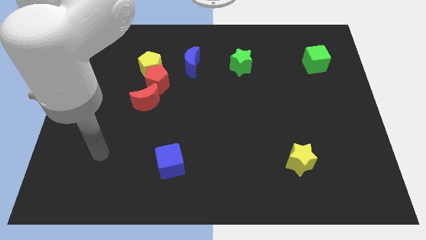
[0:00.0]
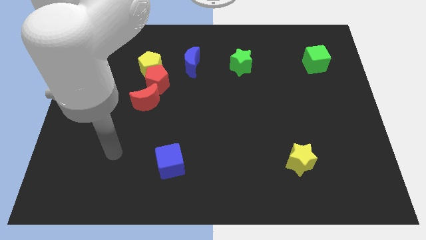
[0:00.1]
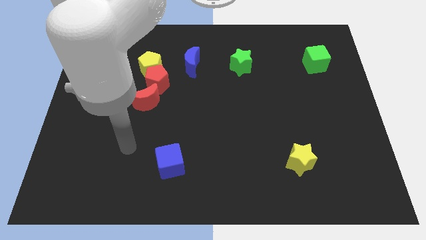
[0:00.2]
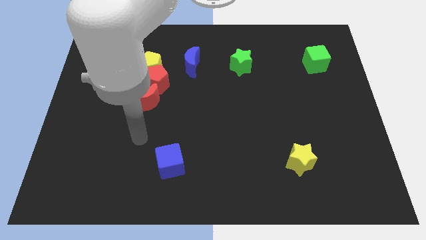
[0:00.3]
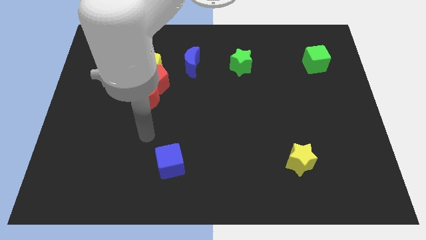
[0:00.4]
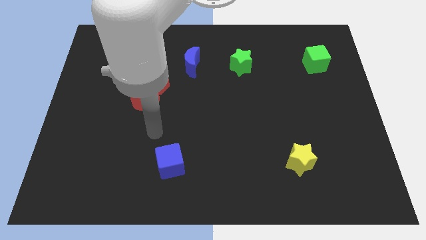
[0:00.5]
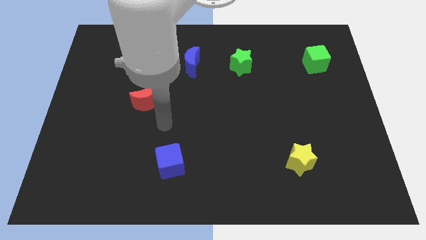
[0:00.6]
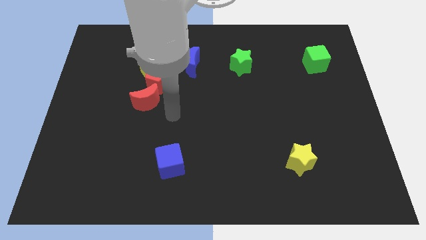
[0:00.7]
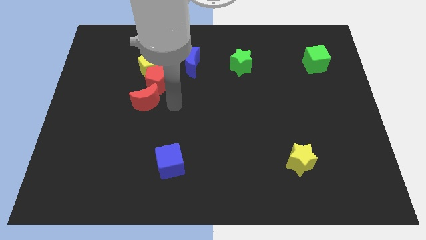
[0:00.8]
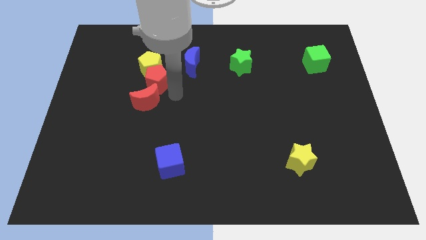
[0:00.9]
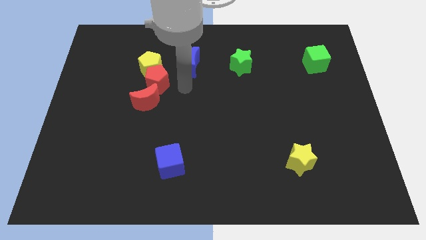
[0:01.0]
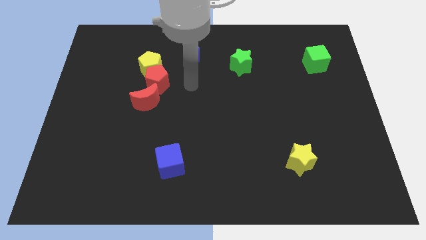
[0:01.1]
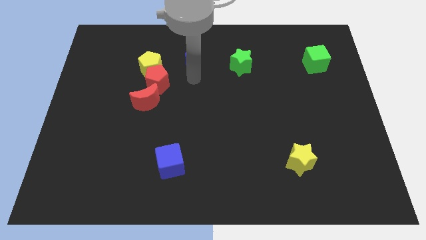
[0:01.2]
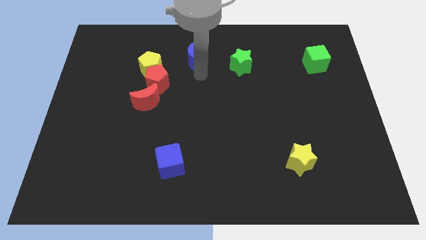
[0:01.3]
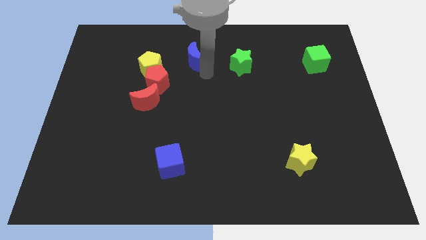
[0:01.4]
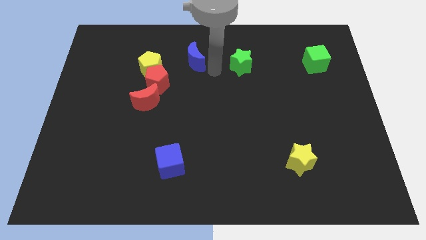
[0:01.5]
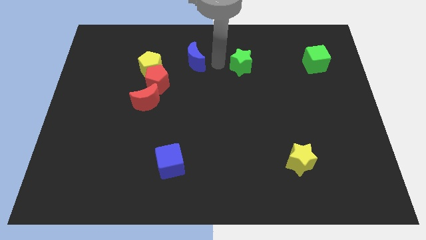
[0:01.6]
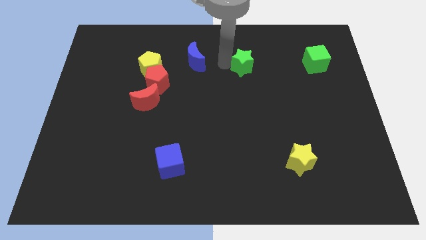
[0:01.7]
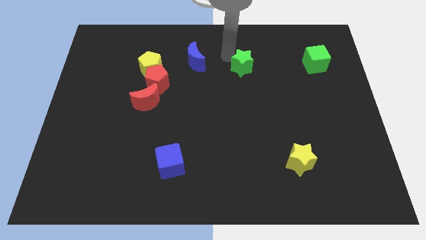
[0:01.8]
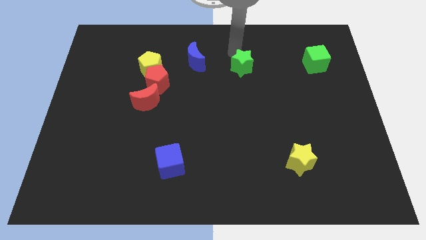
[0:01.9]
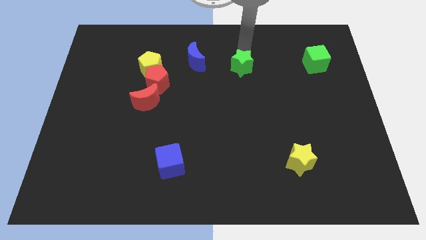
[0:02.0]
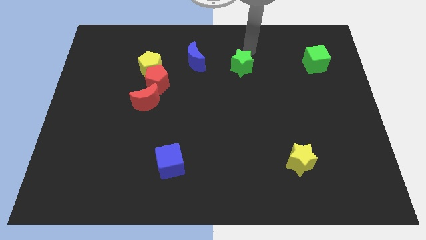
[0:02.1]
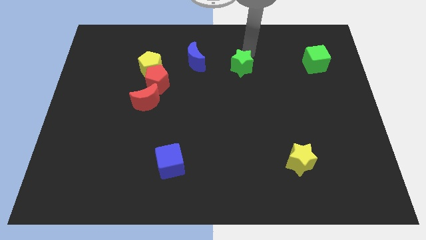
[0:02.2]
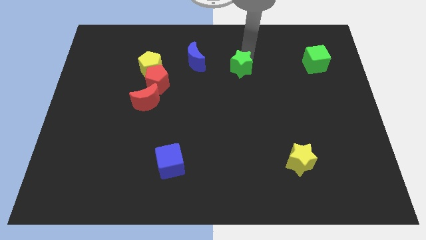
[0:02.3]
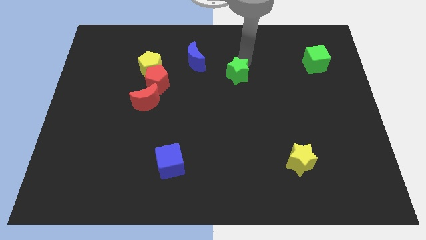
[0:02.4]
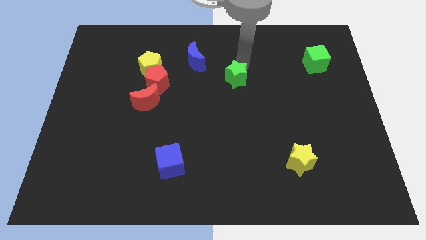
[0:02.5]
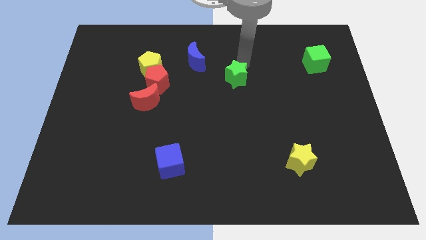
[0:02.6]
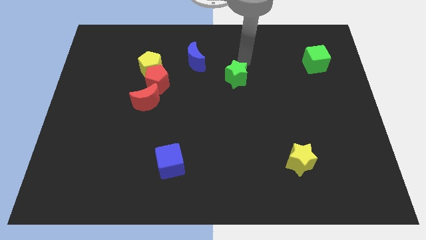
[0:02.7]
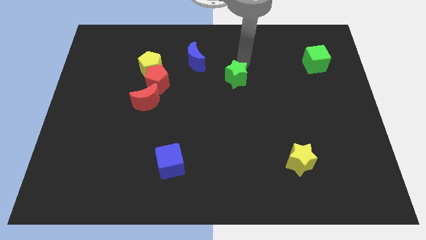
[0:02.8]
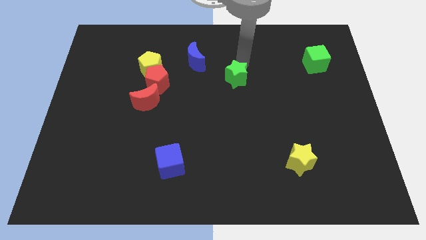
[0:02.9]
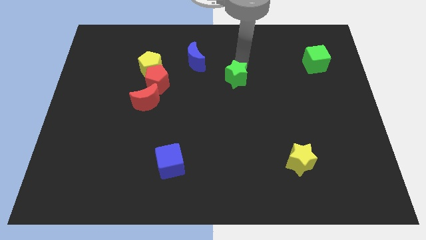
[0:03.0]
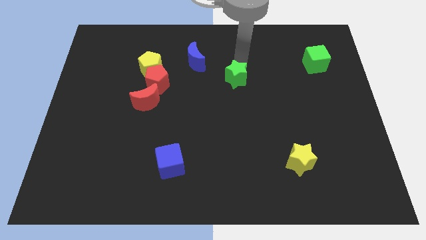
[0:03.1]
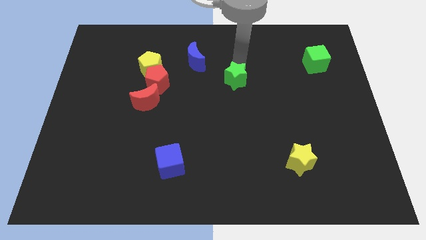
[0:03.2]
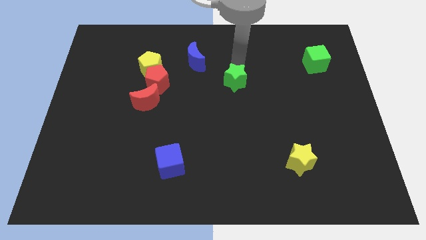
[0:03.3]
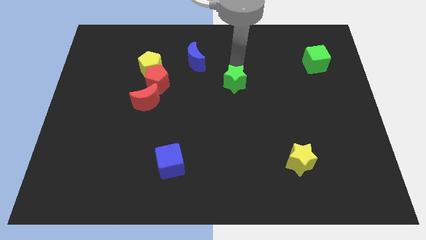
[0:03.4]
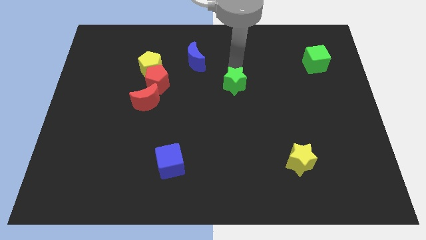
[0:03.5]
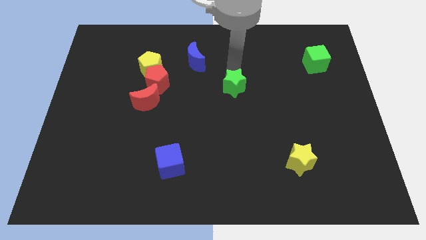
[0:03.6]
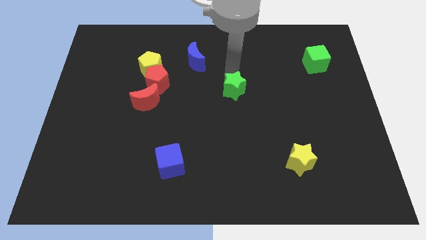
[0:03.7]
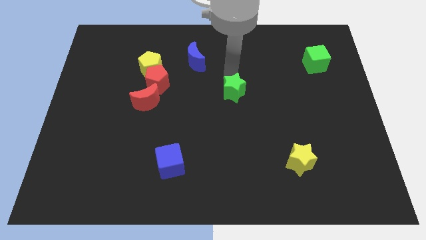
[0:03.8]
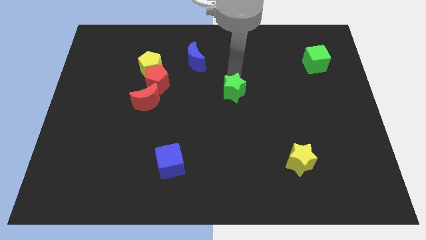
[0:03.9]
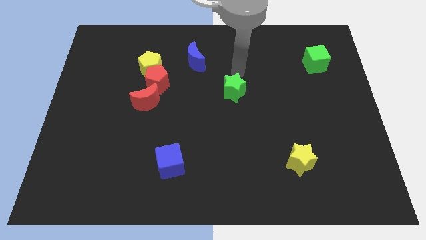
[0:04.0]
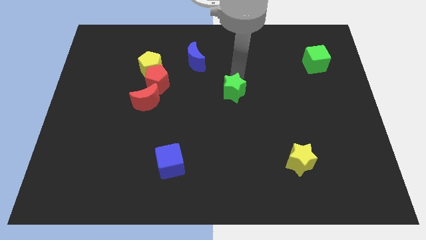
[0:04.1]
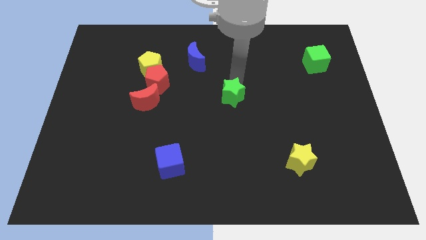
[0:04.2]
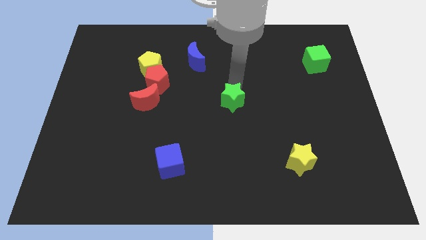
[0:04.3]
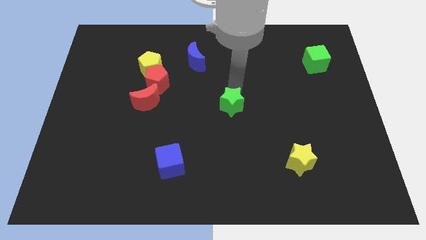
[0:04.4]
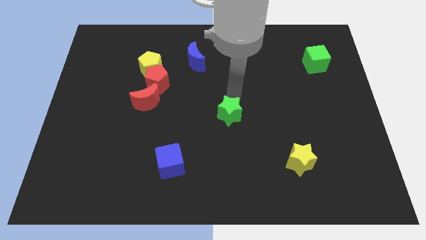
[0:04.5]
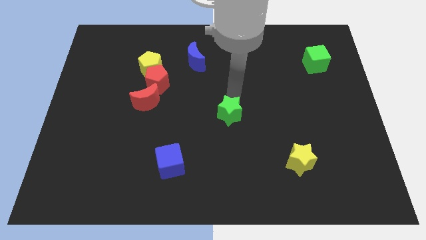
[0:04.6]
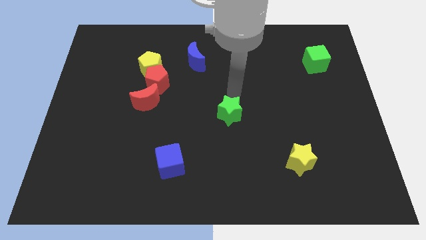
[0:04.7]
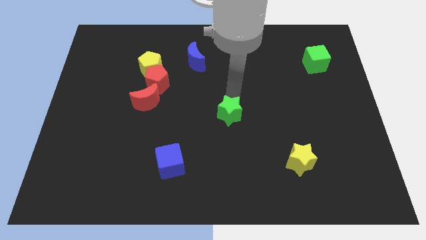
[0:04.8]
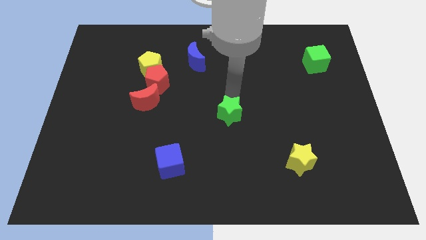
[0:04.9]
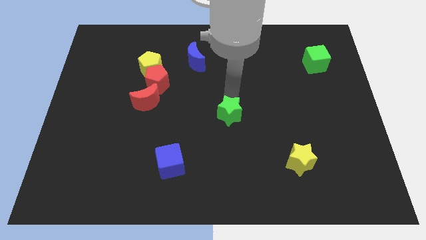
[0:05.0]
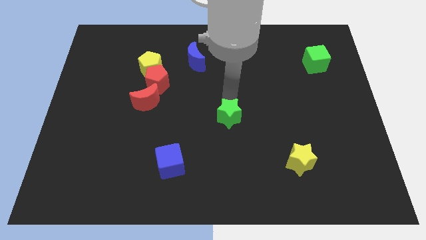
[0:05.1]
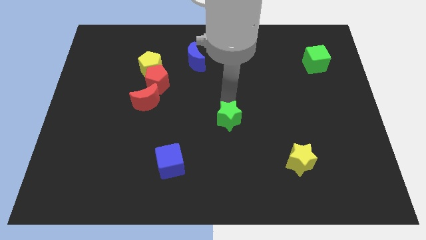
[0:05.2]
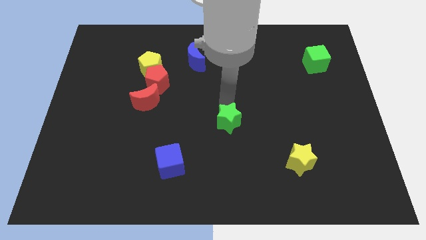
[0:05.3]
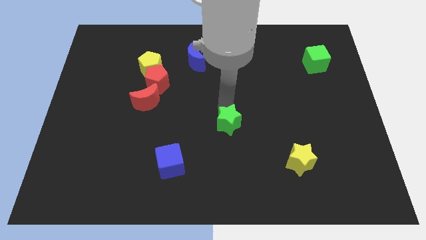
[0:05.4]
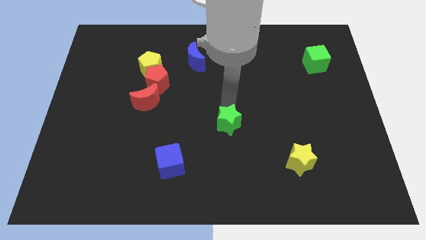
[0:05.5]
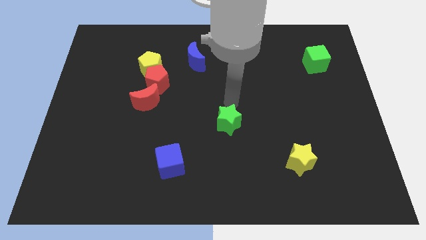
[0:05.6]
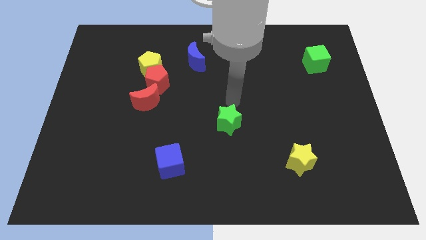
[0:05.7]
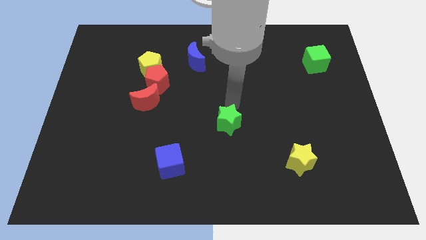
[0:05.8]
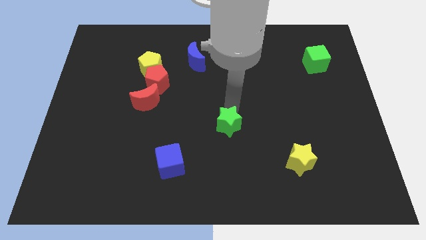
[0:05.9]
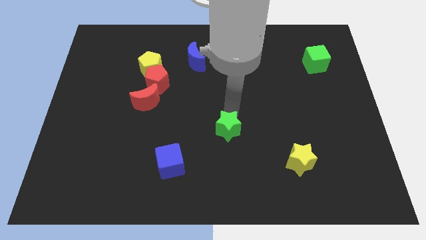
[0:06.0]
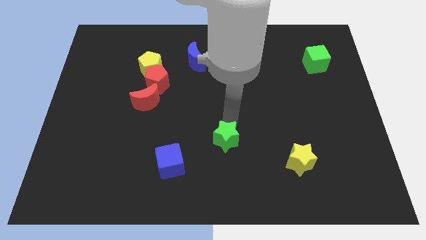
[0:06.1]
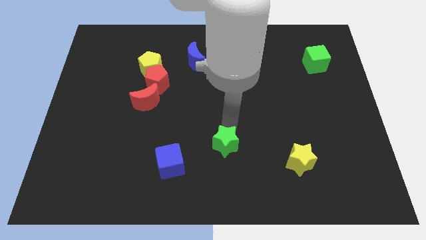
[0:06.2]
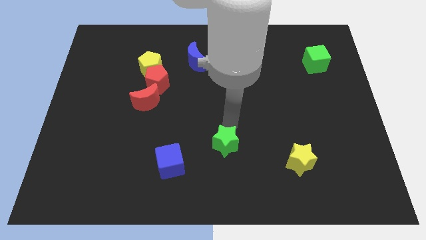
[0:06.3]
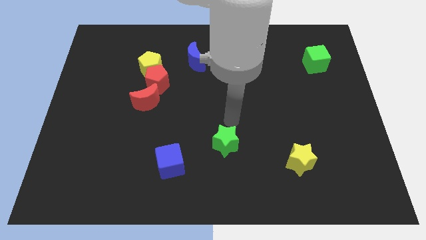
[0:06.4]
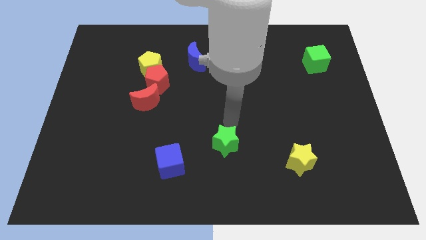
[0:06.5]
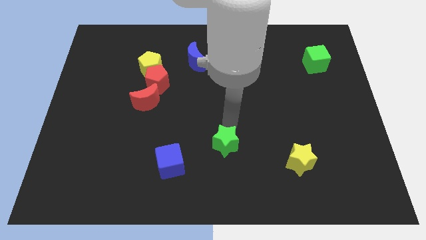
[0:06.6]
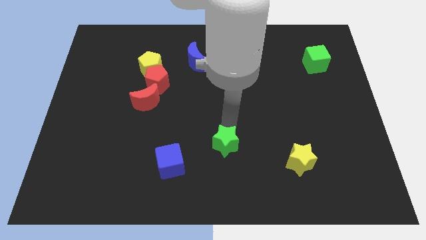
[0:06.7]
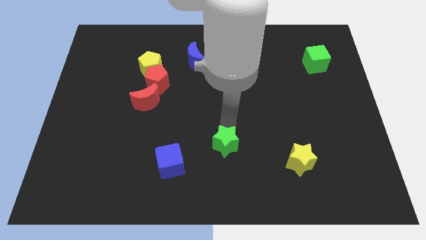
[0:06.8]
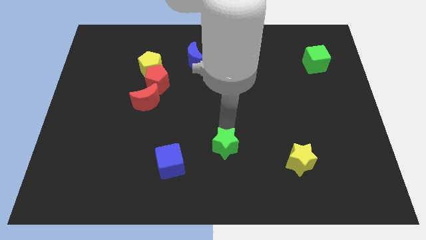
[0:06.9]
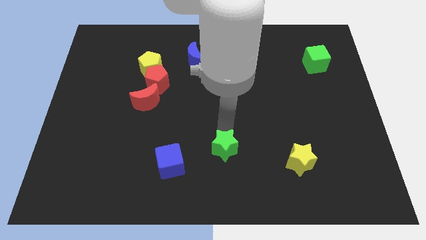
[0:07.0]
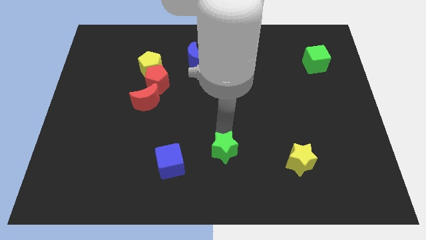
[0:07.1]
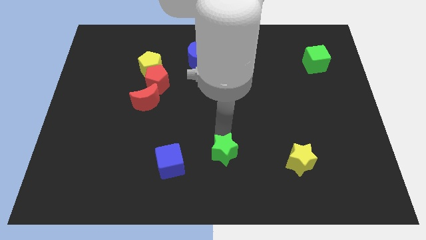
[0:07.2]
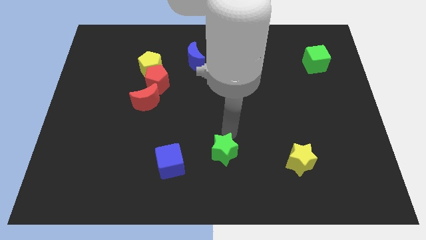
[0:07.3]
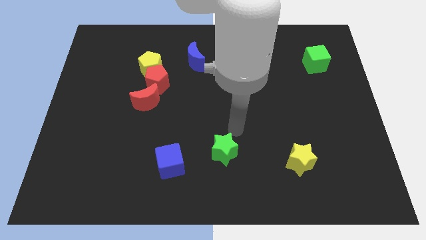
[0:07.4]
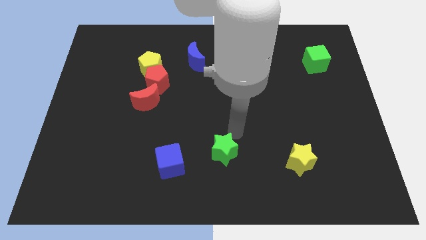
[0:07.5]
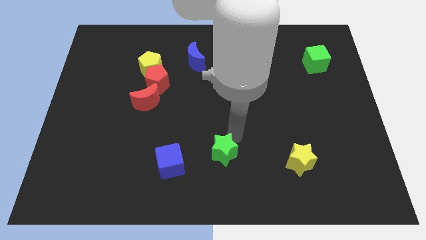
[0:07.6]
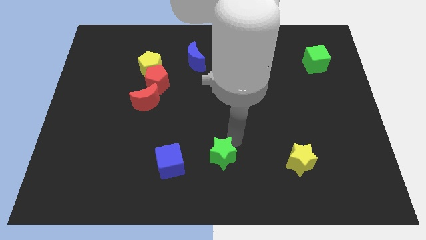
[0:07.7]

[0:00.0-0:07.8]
slide the green star to the bottom
